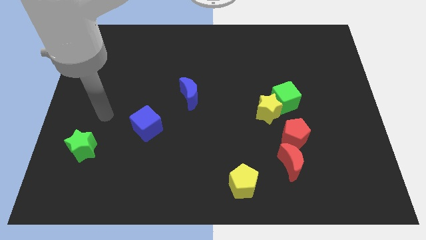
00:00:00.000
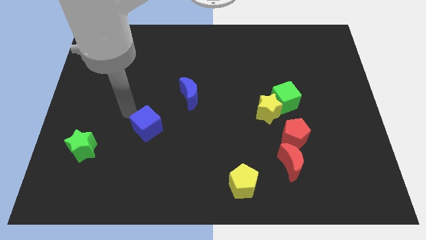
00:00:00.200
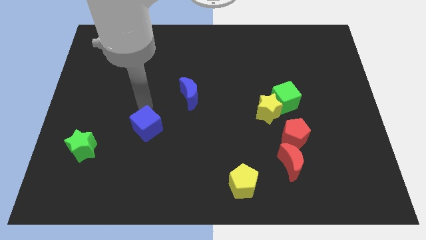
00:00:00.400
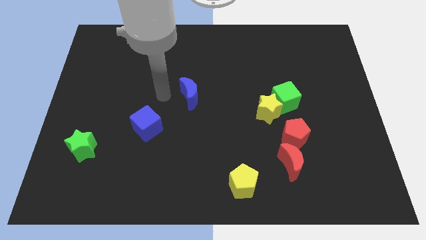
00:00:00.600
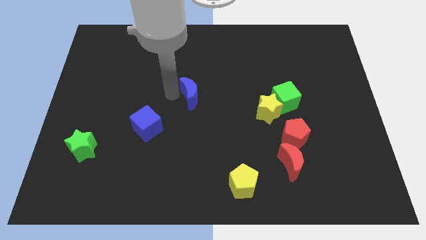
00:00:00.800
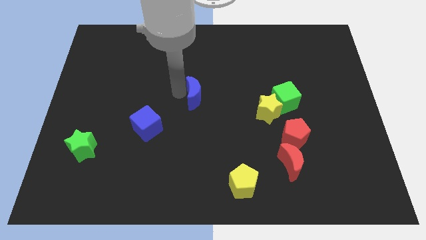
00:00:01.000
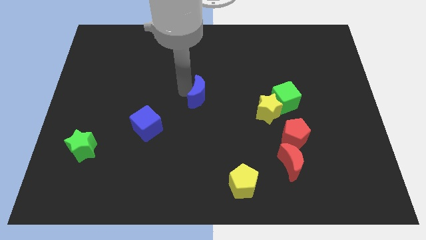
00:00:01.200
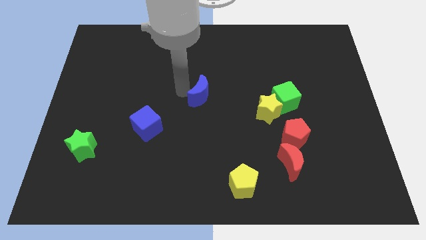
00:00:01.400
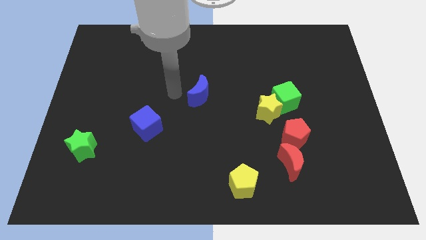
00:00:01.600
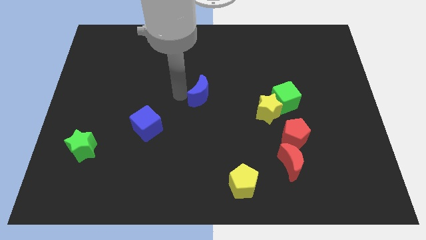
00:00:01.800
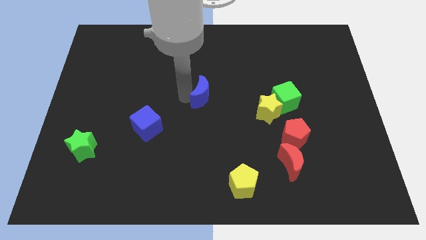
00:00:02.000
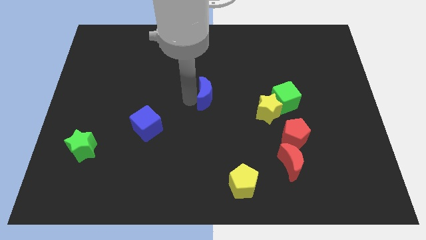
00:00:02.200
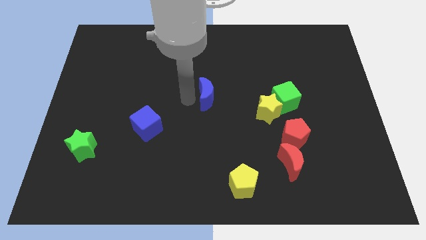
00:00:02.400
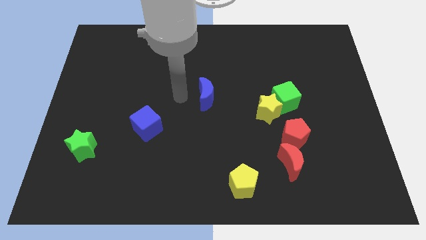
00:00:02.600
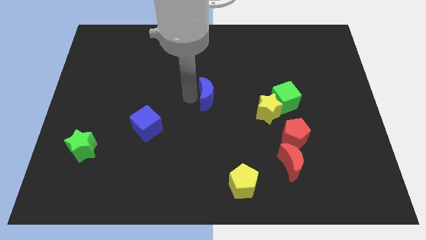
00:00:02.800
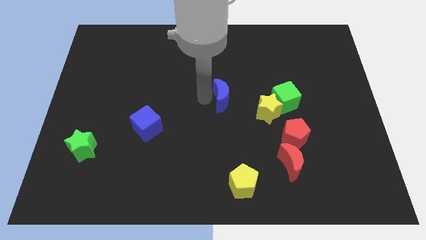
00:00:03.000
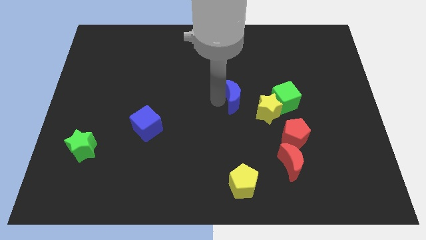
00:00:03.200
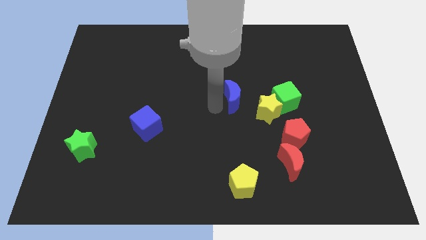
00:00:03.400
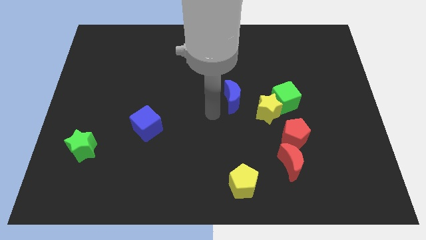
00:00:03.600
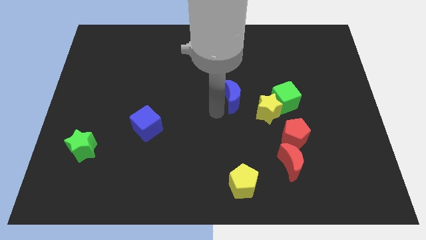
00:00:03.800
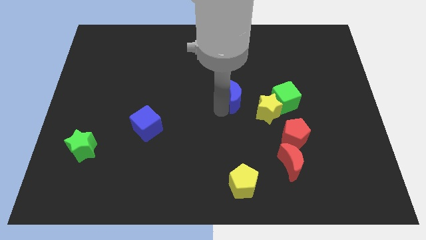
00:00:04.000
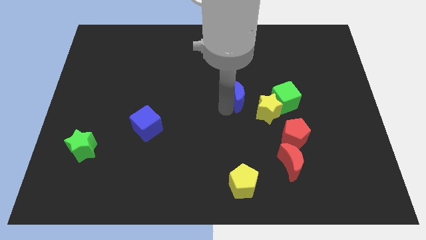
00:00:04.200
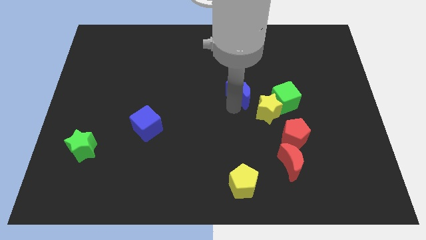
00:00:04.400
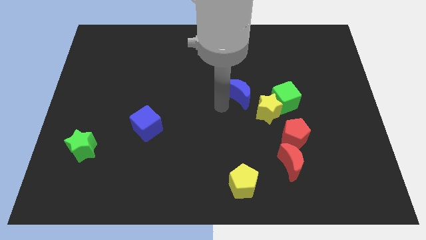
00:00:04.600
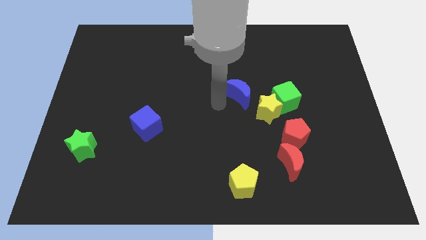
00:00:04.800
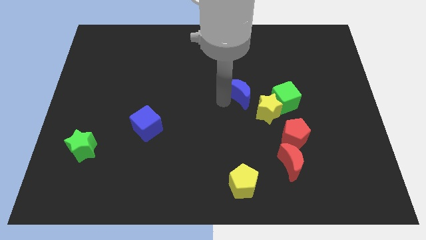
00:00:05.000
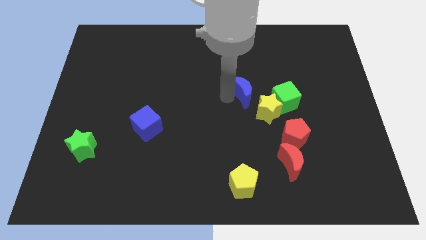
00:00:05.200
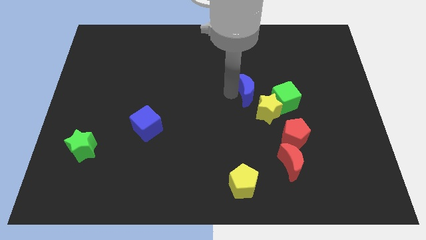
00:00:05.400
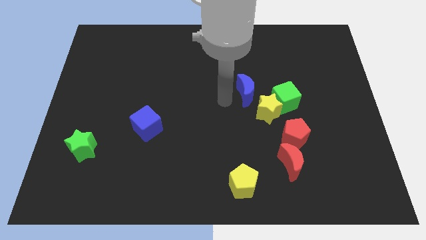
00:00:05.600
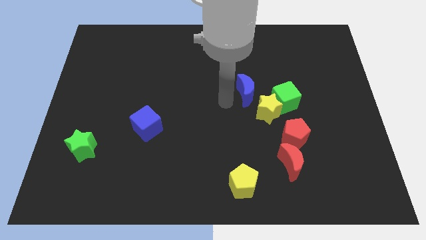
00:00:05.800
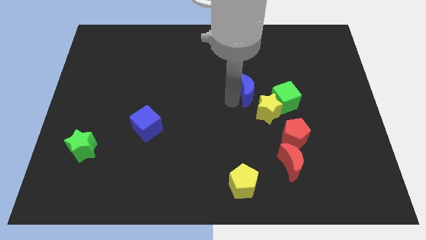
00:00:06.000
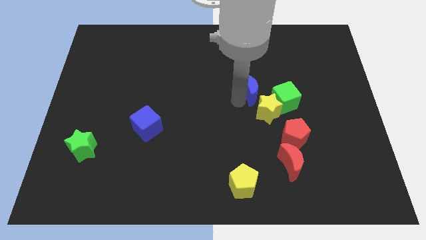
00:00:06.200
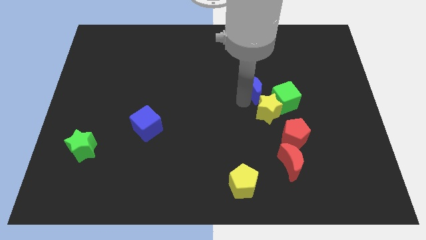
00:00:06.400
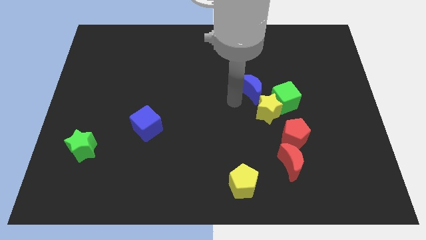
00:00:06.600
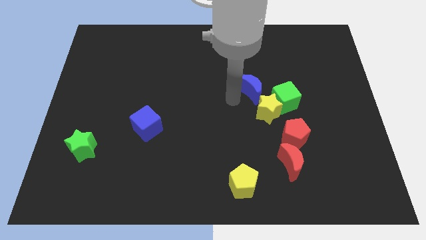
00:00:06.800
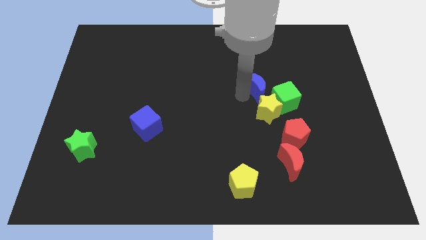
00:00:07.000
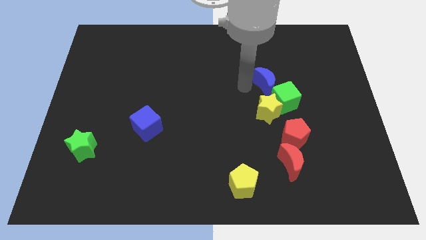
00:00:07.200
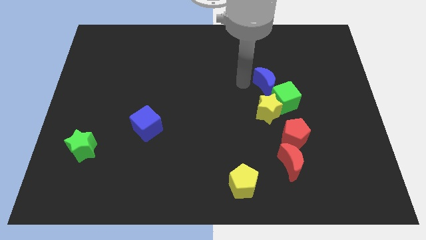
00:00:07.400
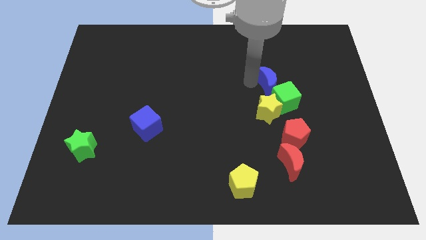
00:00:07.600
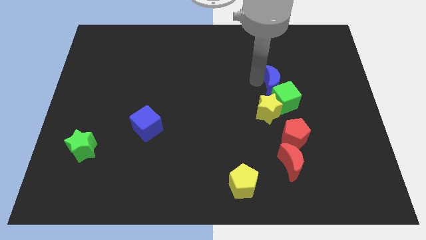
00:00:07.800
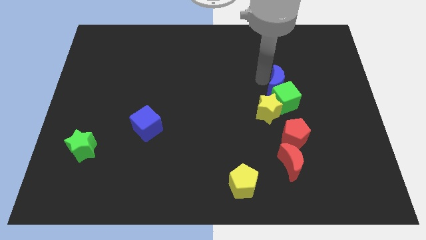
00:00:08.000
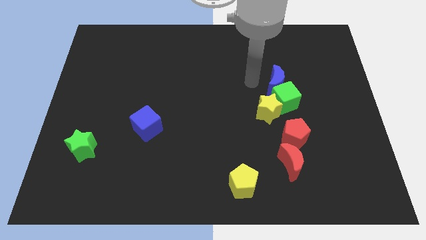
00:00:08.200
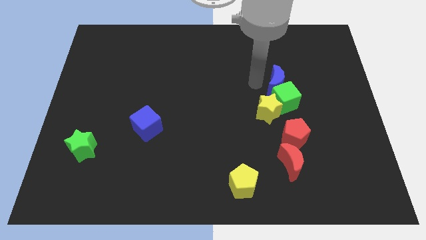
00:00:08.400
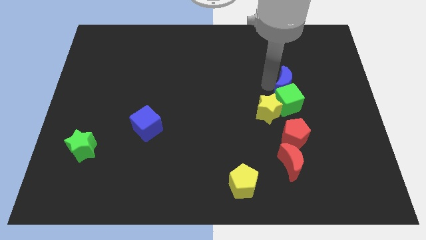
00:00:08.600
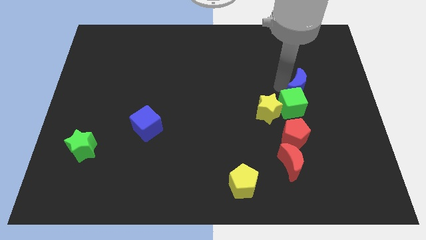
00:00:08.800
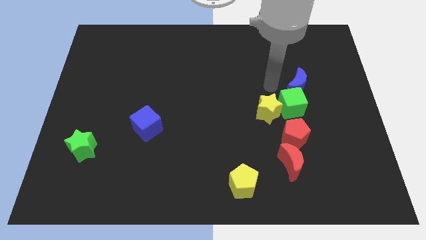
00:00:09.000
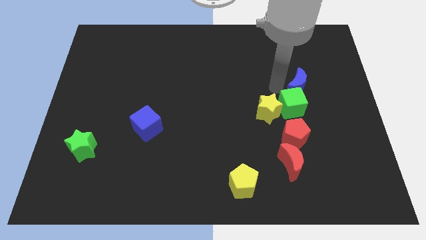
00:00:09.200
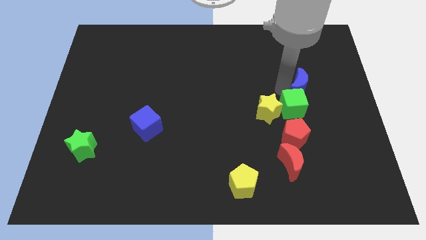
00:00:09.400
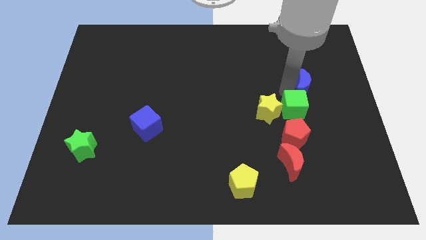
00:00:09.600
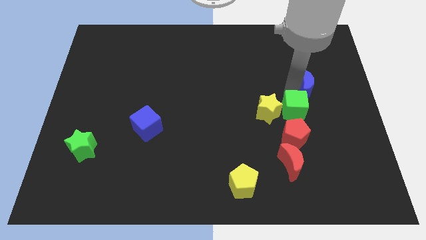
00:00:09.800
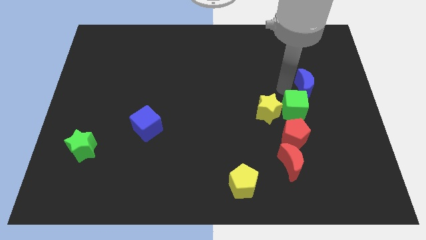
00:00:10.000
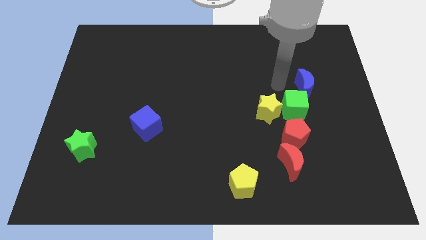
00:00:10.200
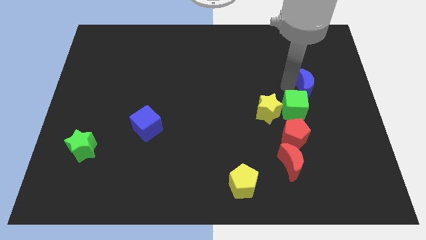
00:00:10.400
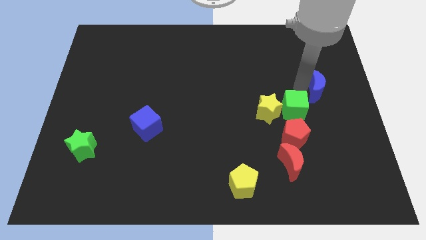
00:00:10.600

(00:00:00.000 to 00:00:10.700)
put the blue moon to the right side
